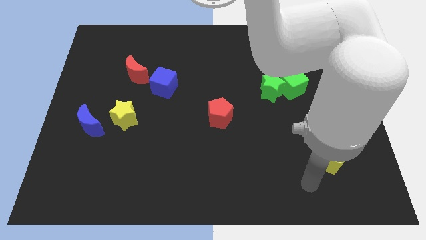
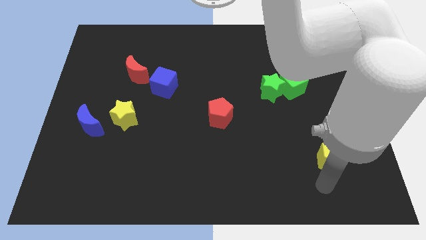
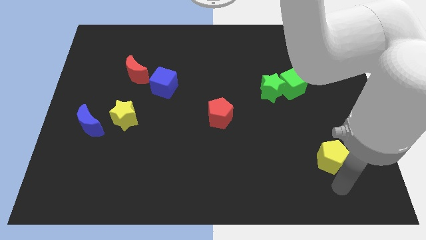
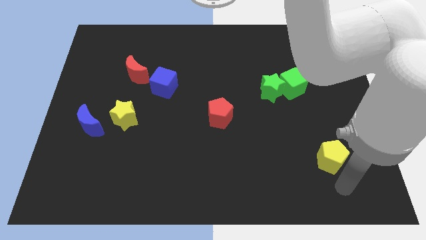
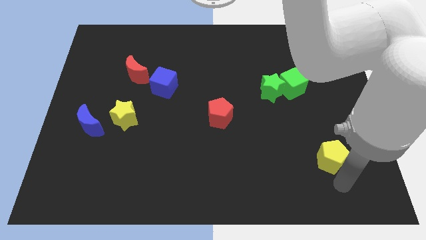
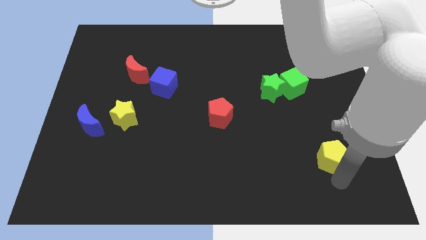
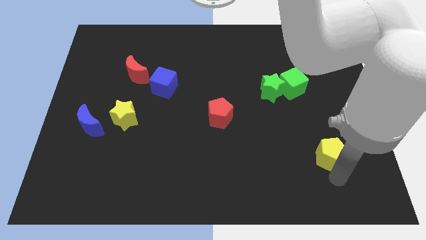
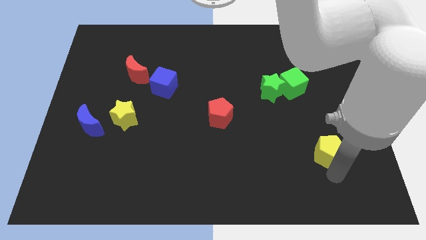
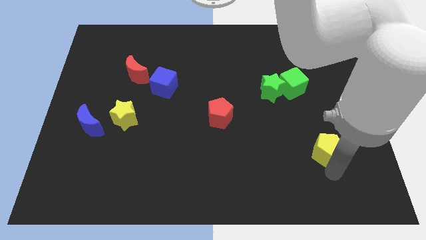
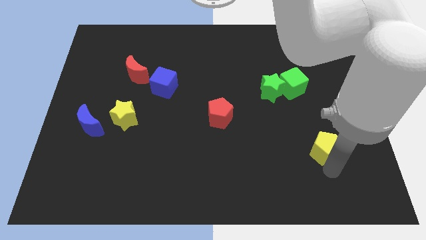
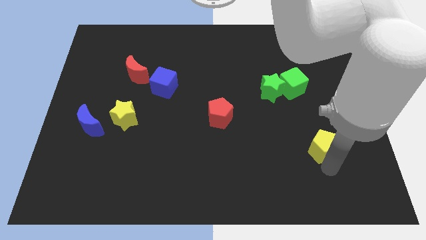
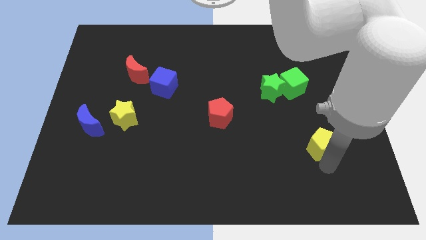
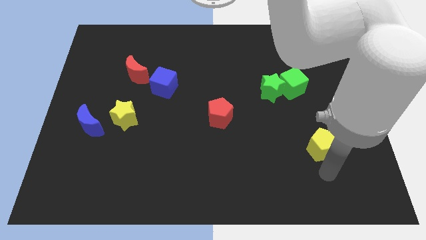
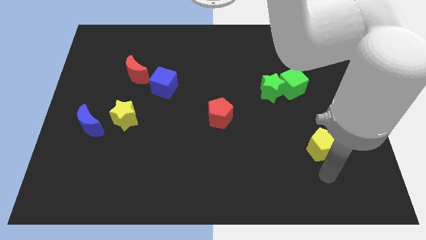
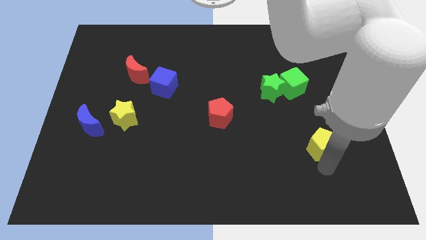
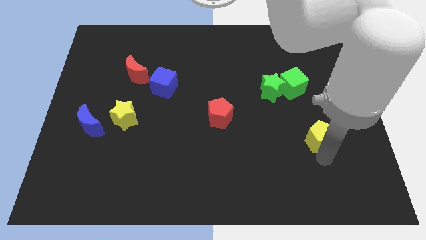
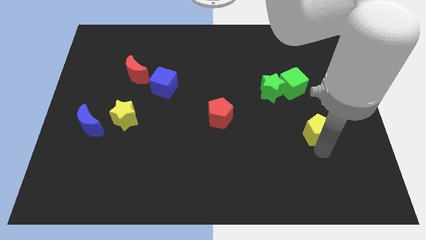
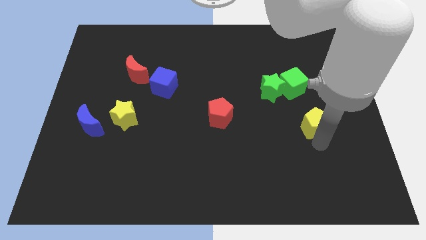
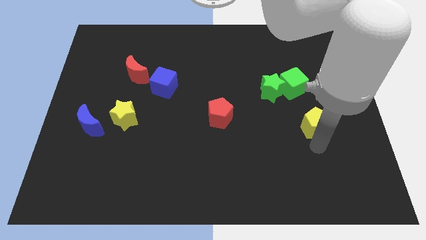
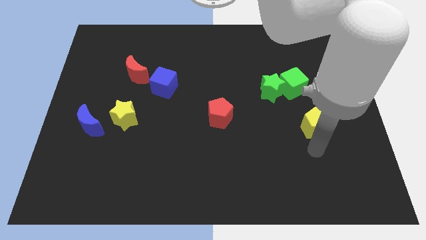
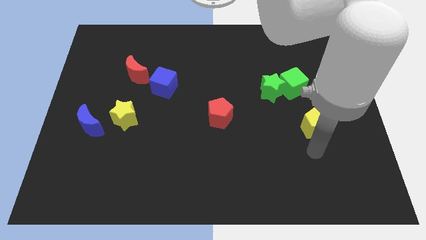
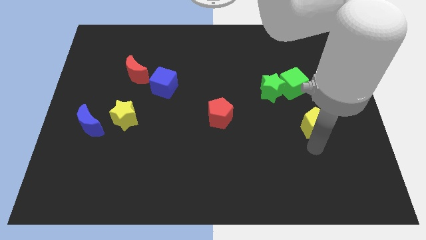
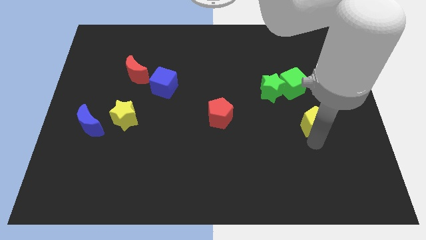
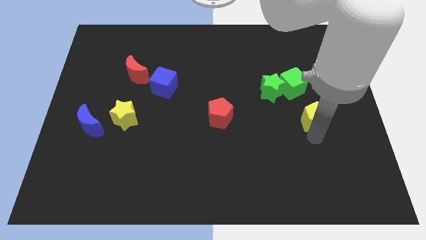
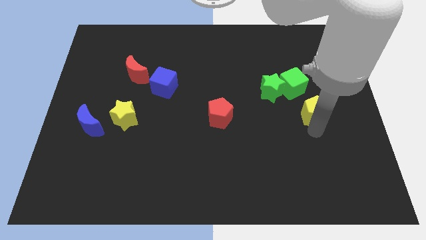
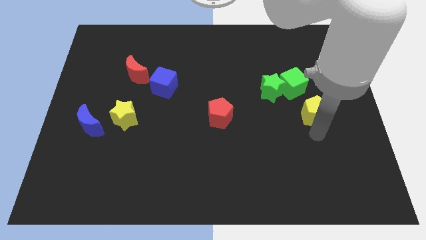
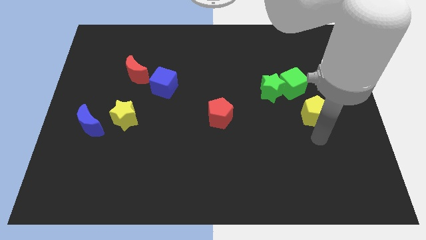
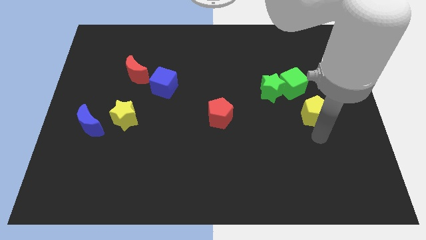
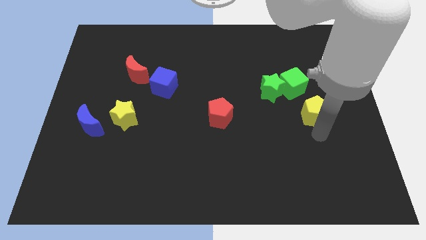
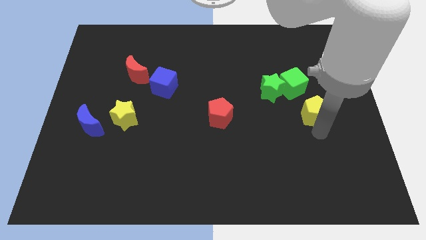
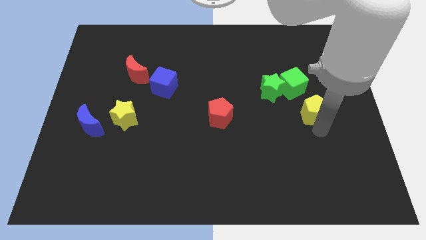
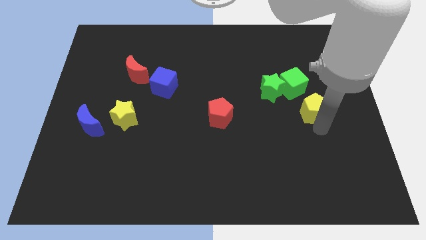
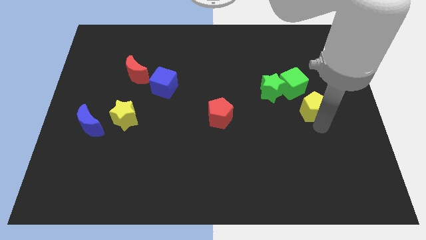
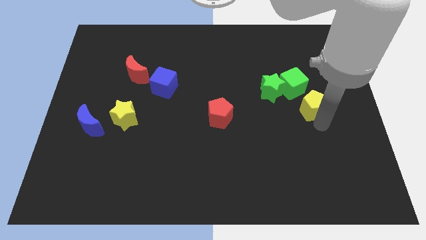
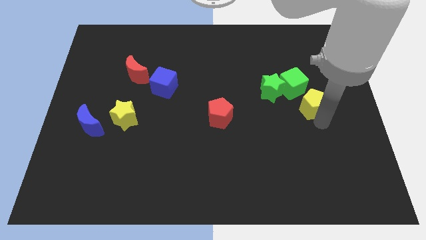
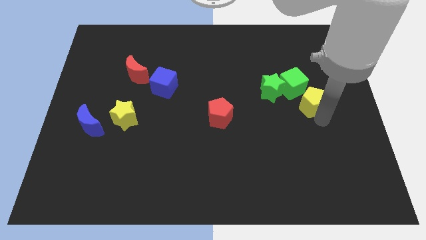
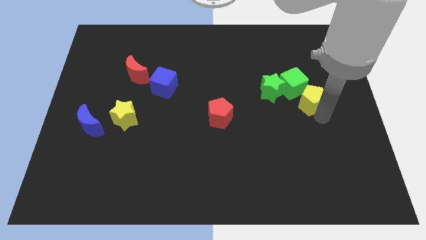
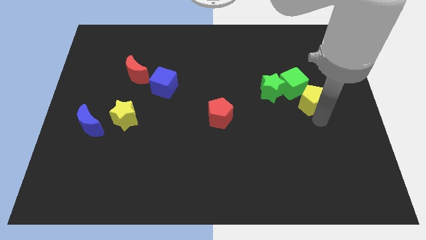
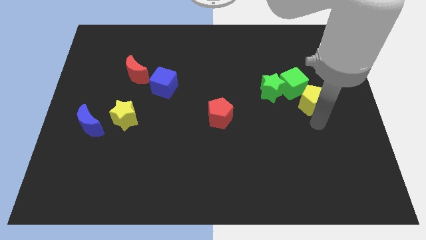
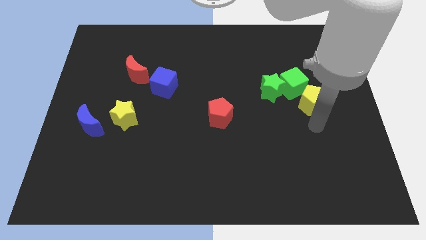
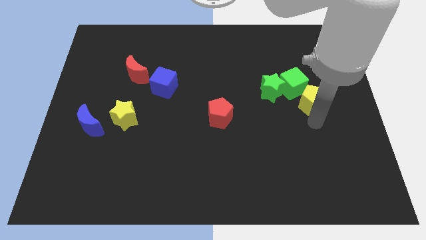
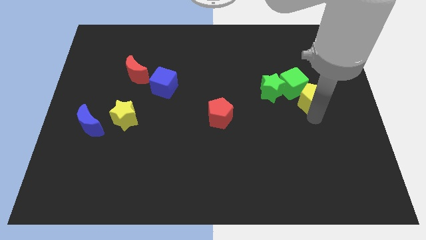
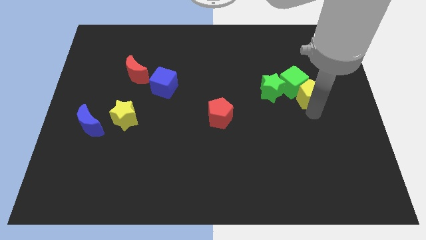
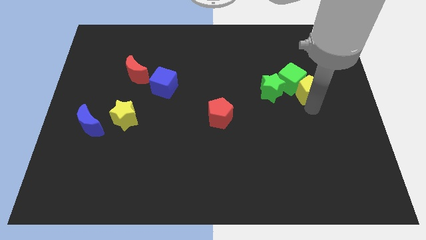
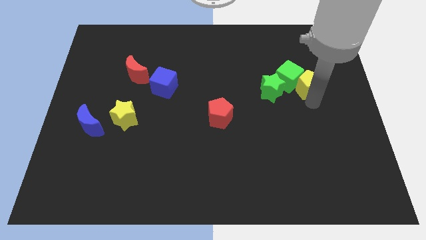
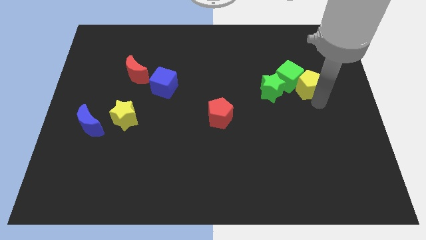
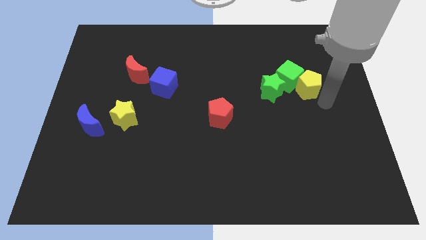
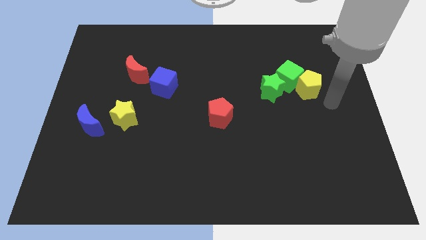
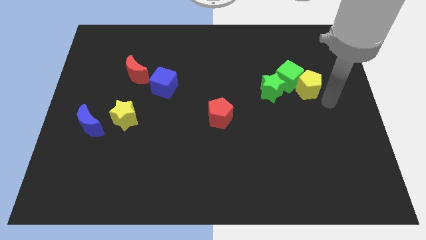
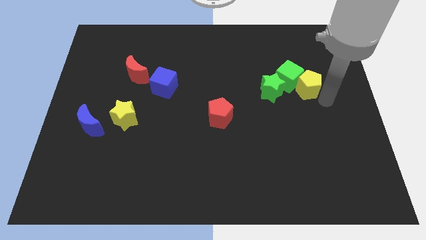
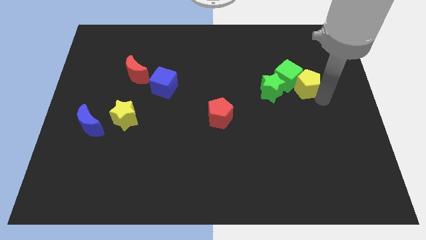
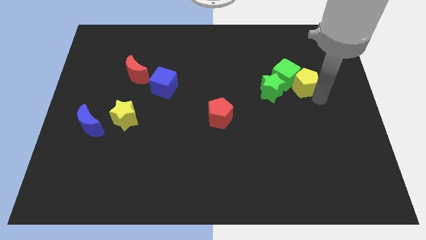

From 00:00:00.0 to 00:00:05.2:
put the yellow pentagon to the top right of the green star

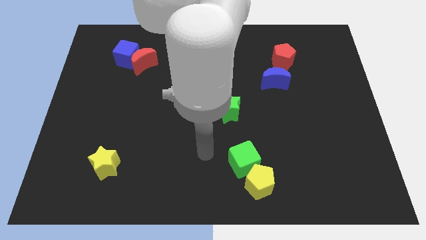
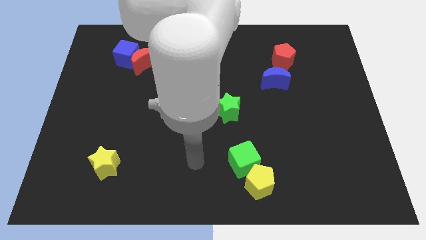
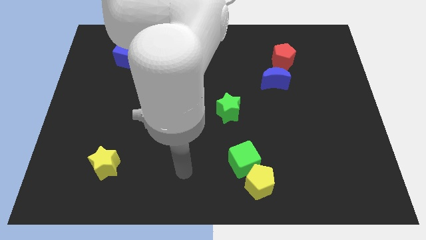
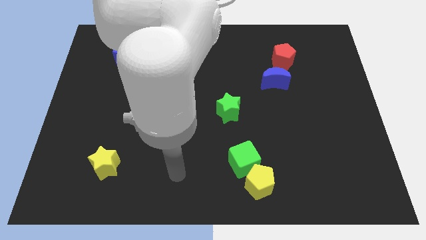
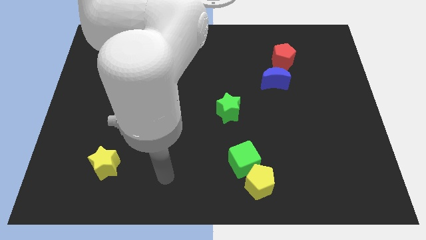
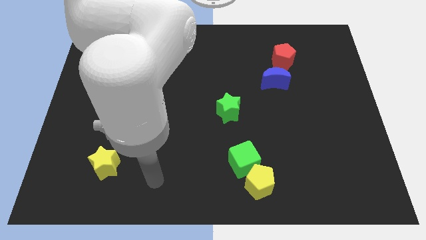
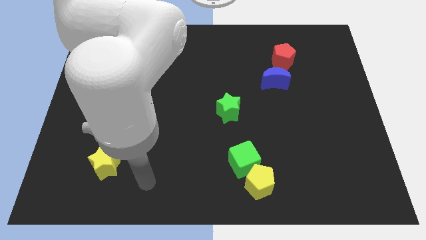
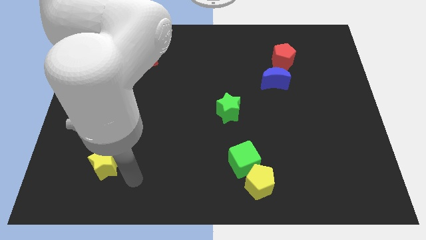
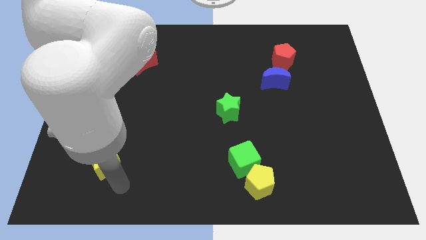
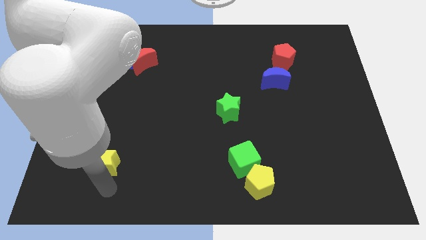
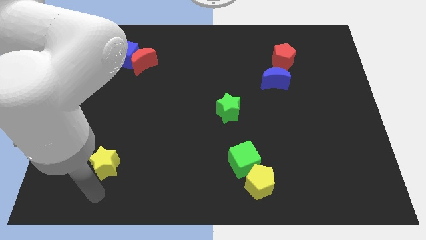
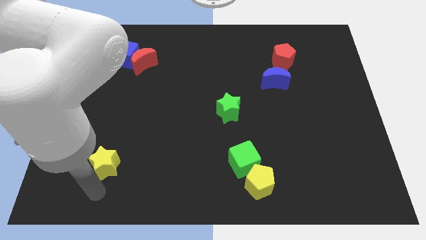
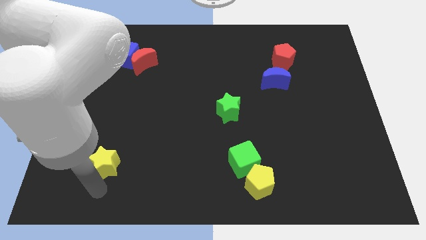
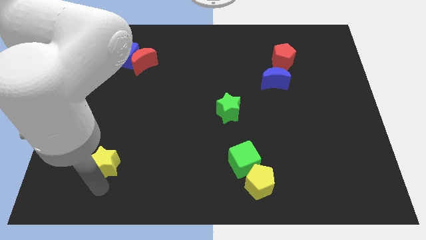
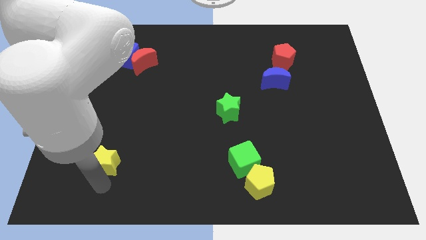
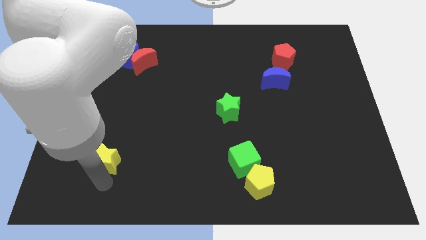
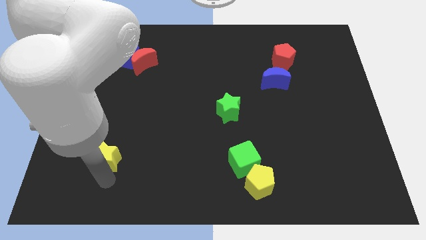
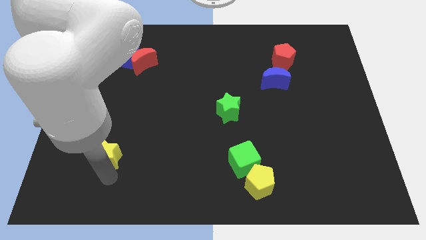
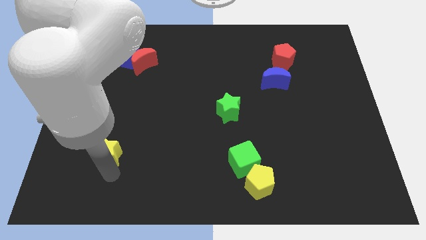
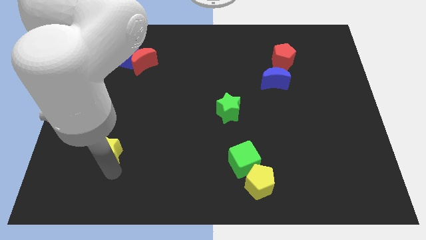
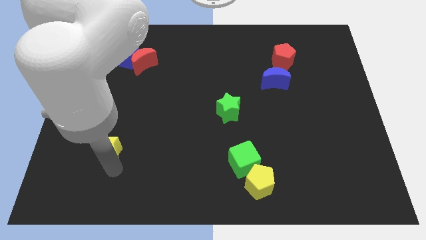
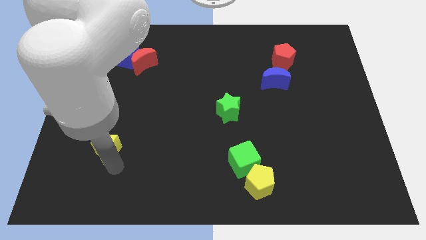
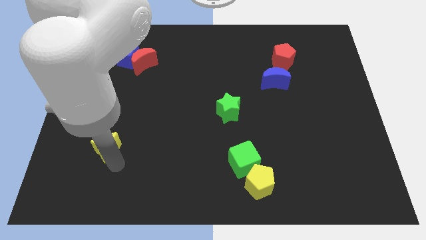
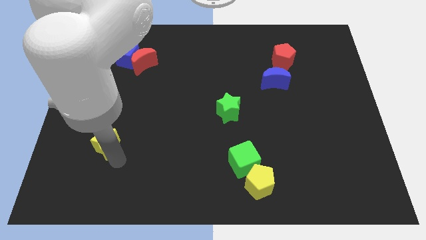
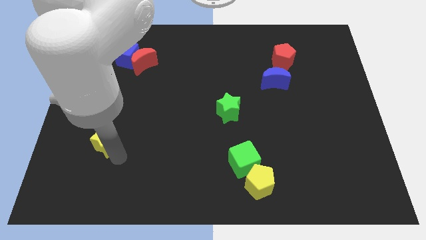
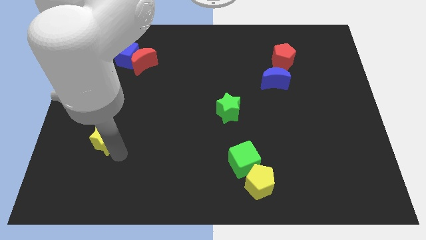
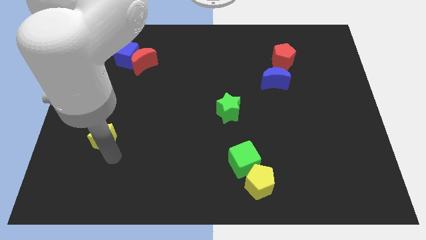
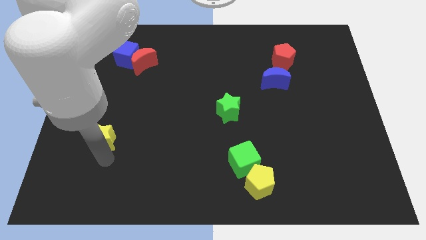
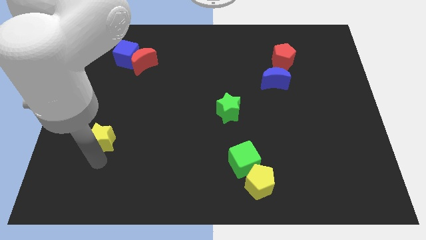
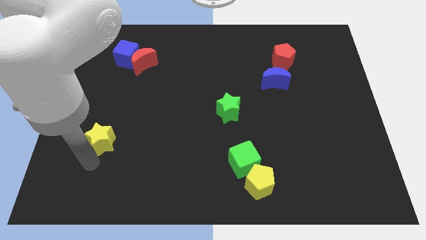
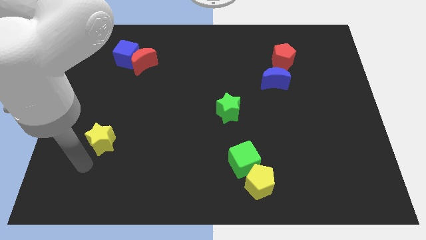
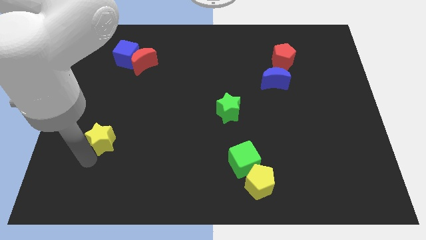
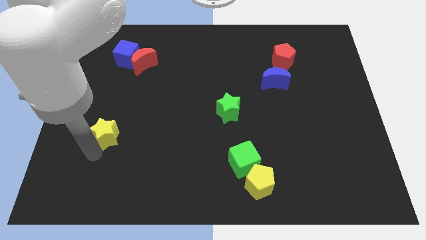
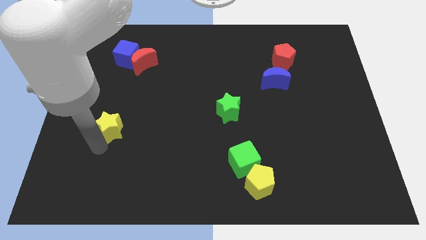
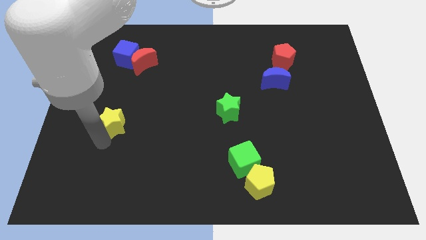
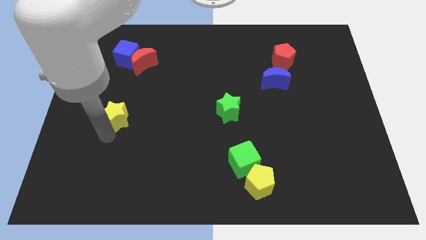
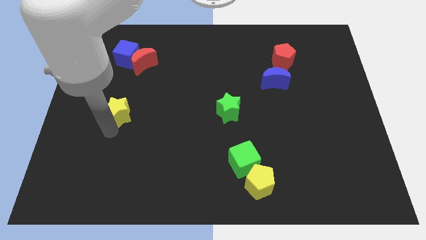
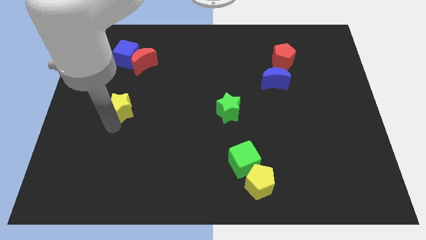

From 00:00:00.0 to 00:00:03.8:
move the yellow star to the bottom of the red moon
